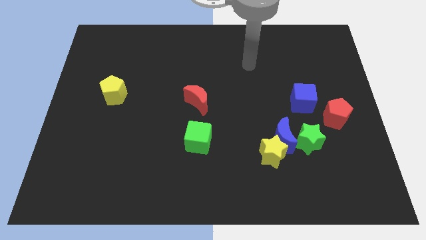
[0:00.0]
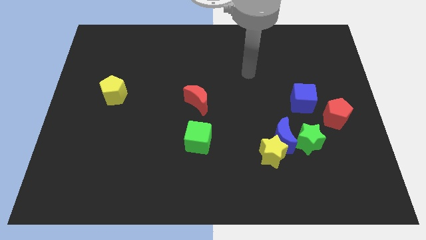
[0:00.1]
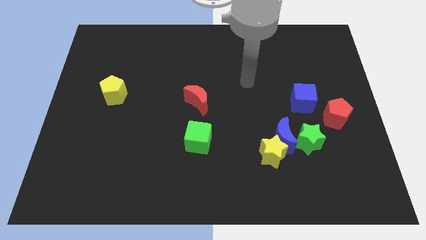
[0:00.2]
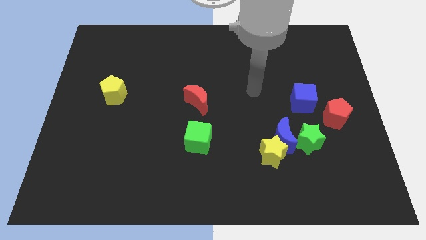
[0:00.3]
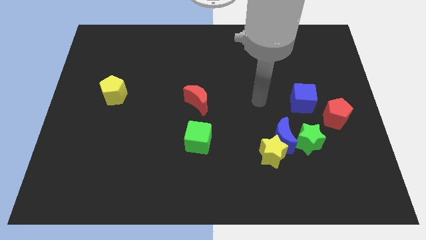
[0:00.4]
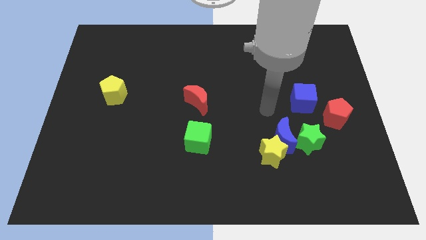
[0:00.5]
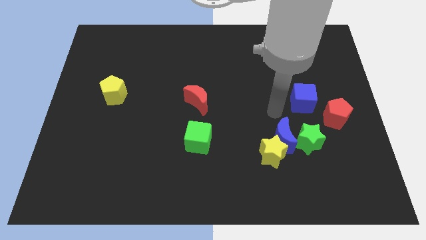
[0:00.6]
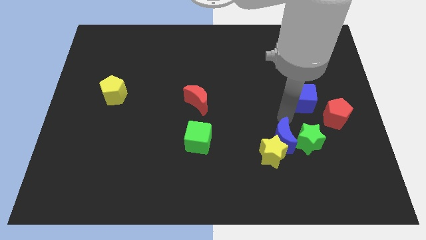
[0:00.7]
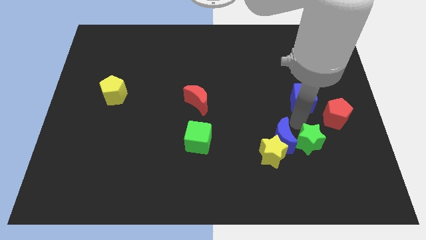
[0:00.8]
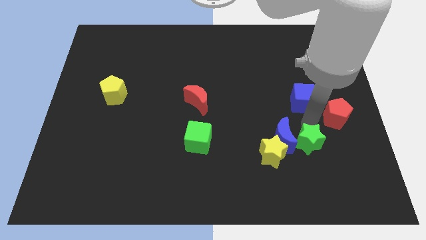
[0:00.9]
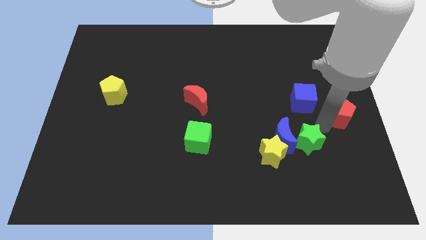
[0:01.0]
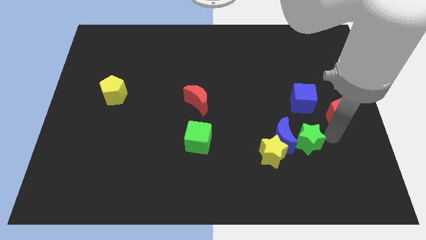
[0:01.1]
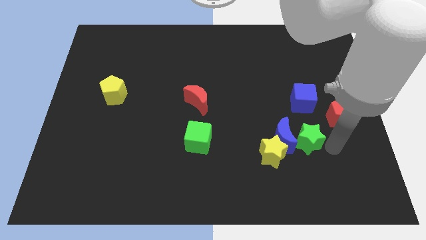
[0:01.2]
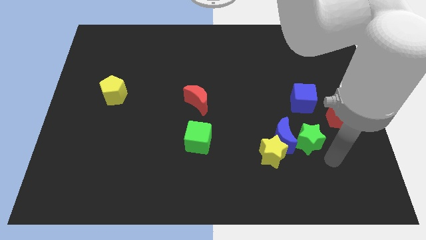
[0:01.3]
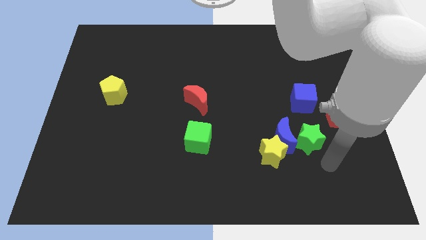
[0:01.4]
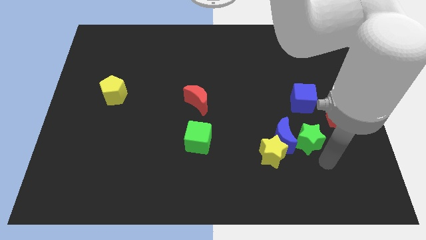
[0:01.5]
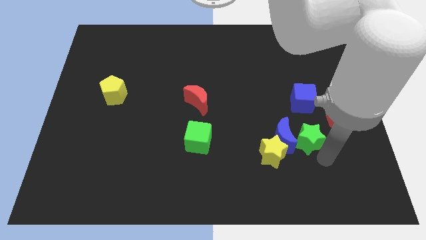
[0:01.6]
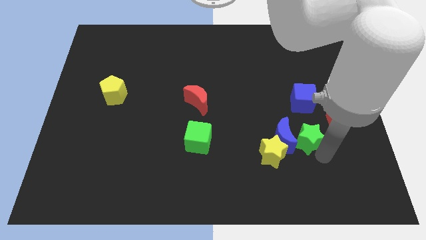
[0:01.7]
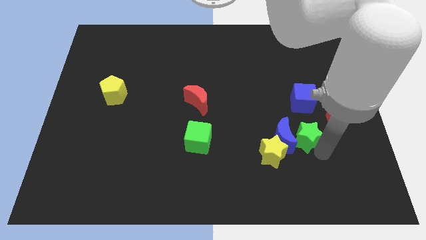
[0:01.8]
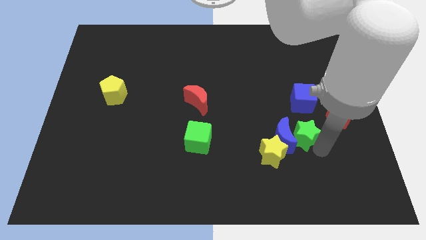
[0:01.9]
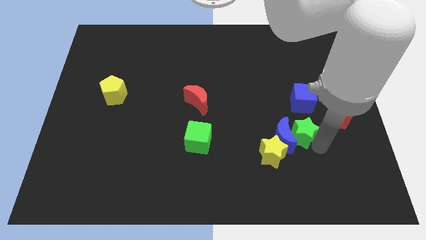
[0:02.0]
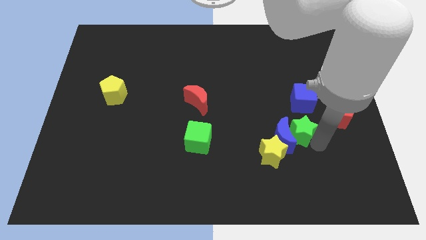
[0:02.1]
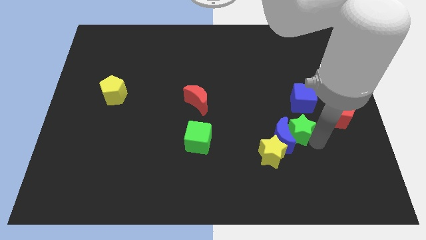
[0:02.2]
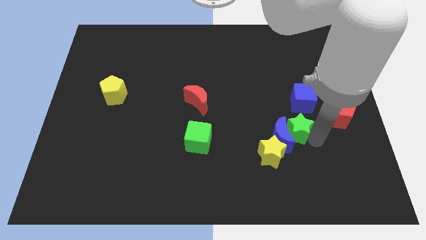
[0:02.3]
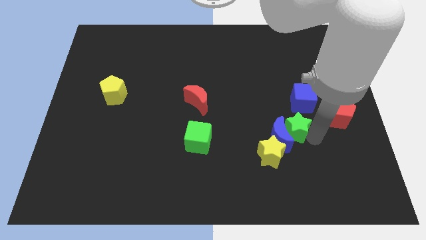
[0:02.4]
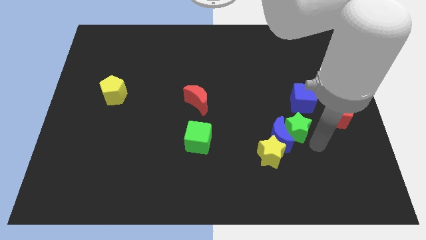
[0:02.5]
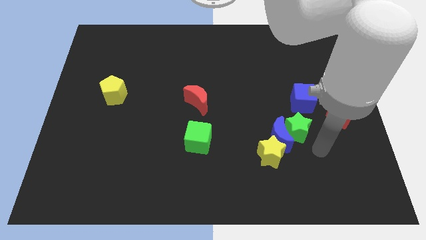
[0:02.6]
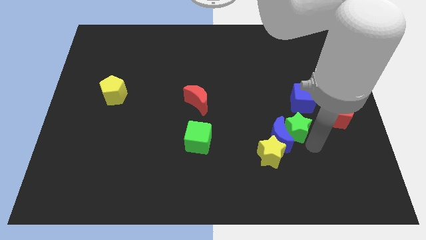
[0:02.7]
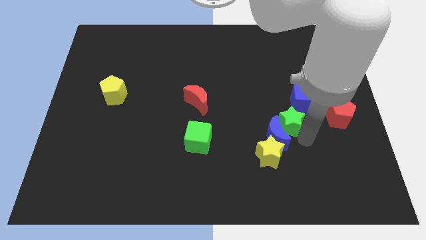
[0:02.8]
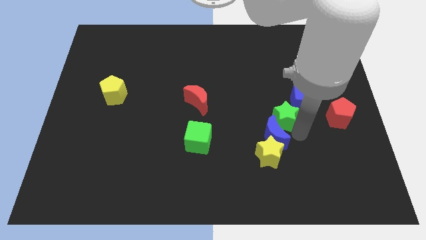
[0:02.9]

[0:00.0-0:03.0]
slide the green star a little bit up and to the left diagonally

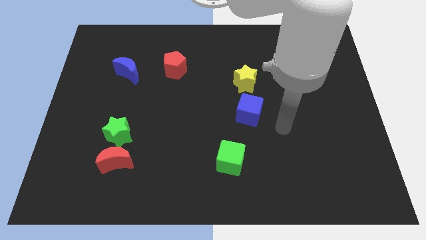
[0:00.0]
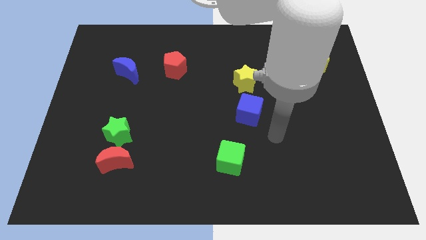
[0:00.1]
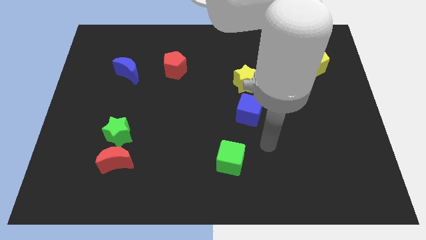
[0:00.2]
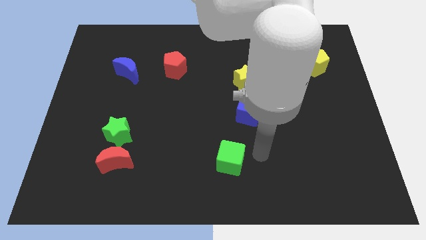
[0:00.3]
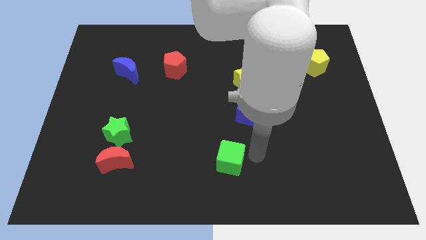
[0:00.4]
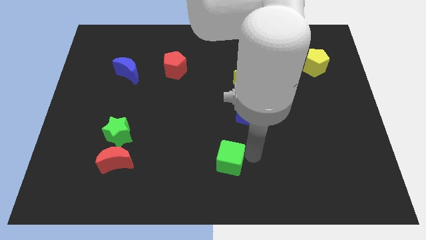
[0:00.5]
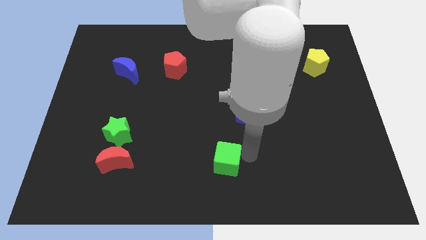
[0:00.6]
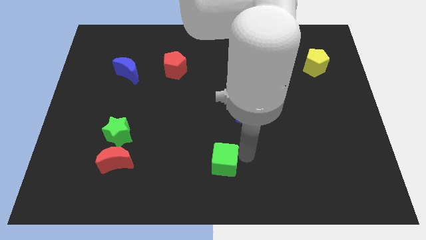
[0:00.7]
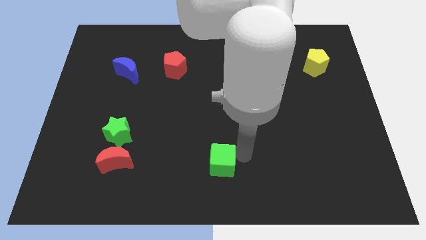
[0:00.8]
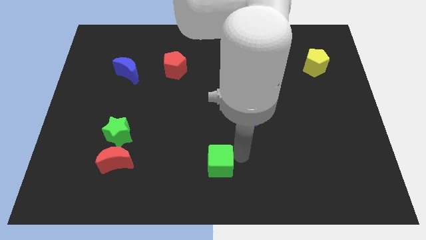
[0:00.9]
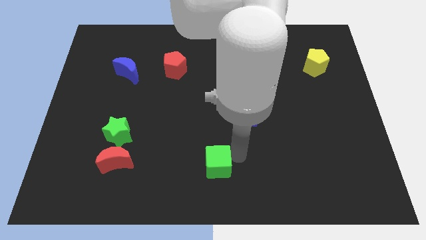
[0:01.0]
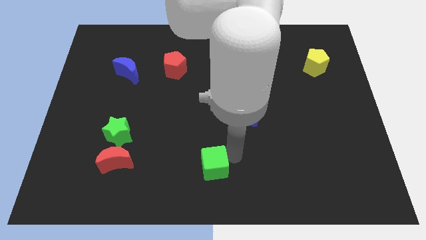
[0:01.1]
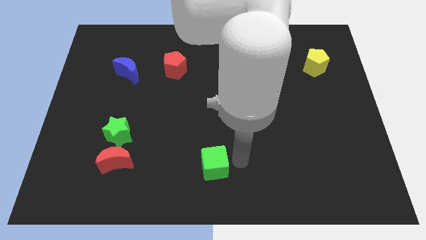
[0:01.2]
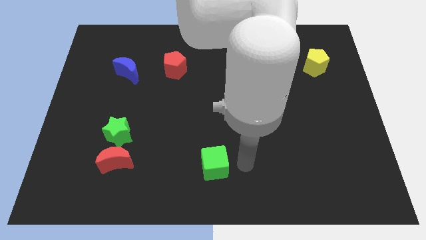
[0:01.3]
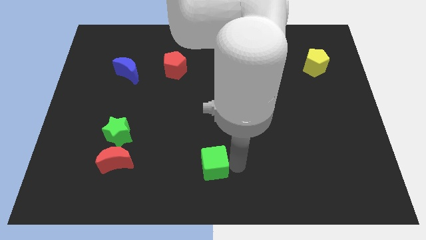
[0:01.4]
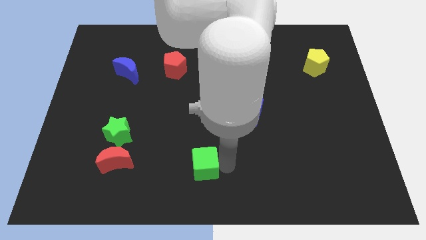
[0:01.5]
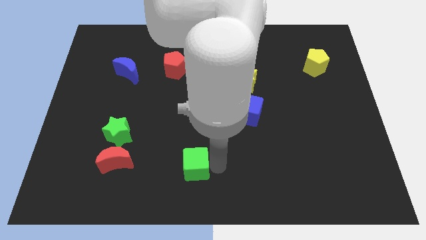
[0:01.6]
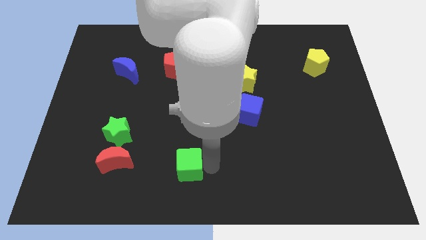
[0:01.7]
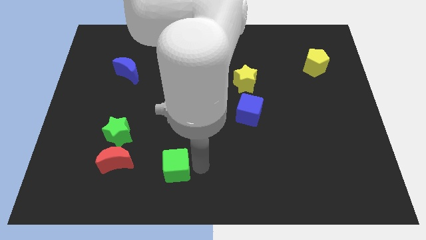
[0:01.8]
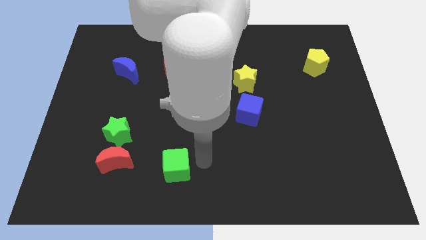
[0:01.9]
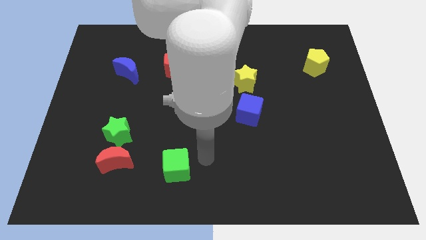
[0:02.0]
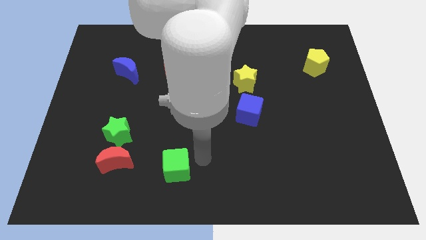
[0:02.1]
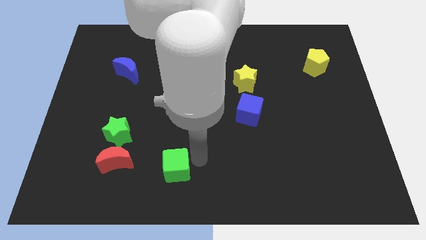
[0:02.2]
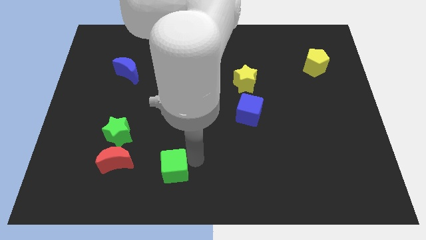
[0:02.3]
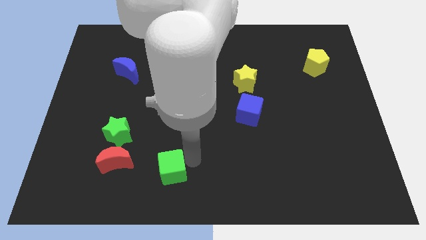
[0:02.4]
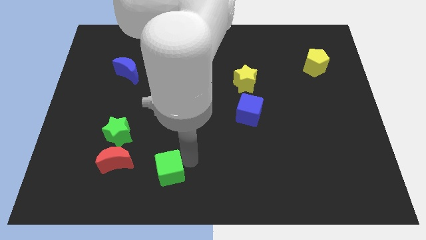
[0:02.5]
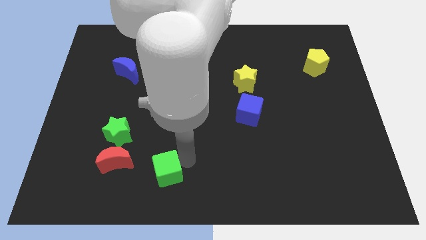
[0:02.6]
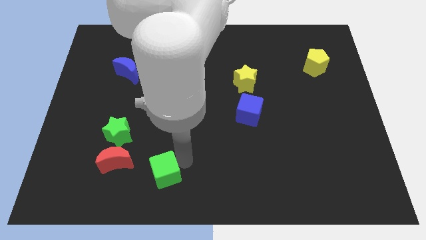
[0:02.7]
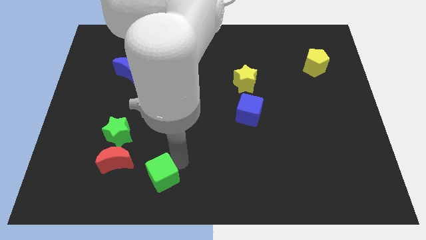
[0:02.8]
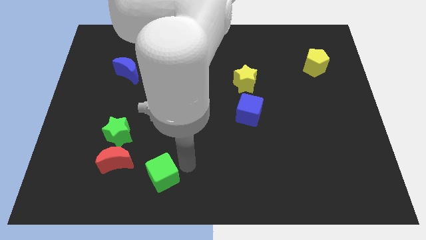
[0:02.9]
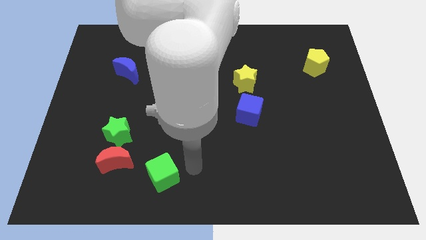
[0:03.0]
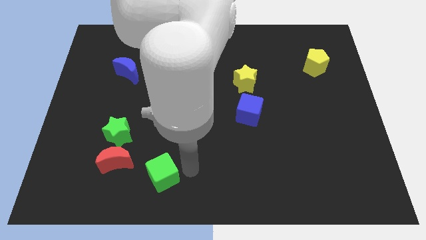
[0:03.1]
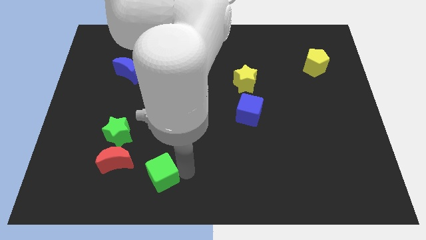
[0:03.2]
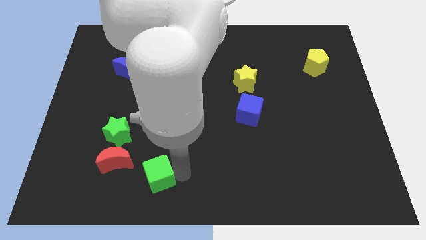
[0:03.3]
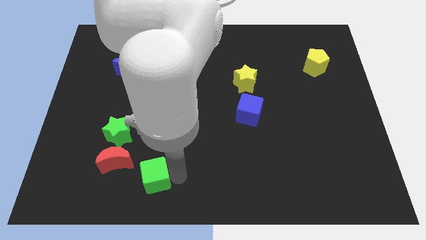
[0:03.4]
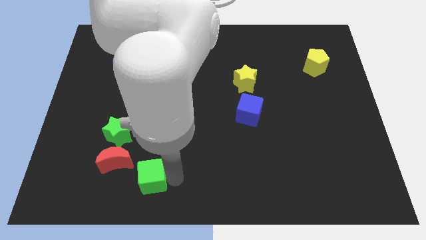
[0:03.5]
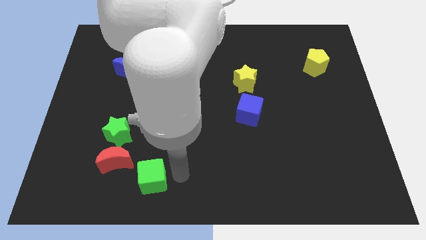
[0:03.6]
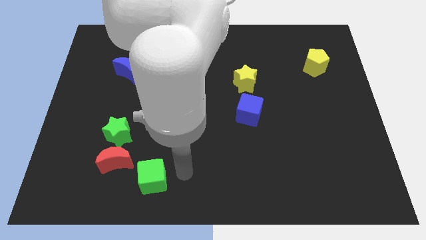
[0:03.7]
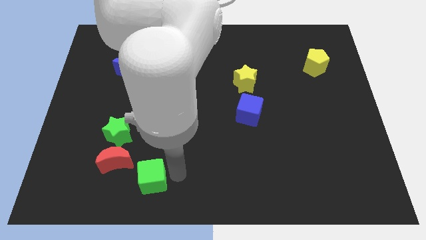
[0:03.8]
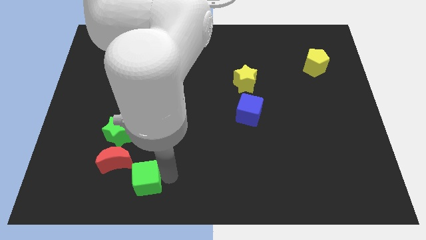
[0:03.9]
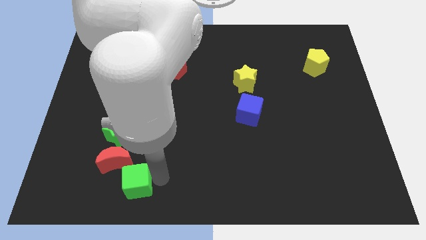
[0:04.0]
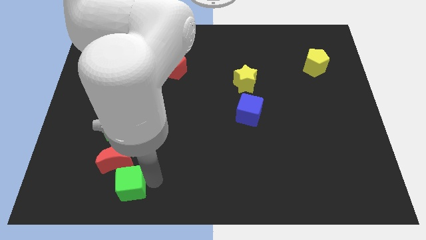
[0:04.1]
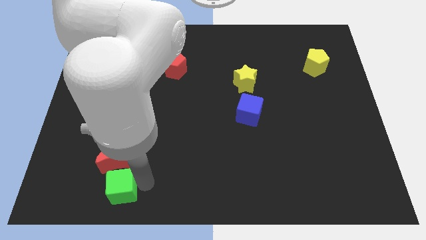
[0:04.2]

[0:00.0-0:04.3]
slide the green cube left

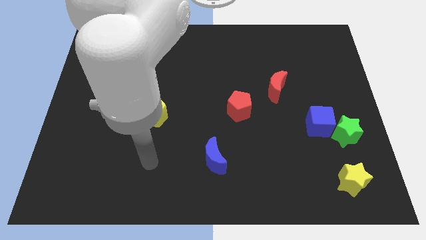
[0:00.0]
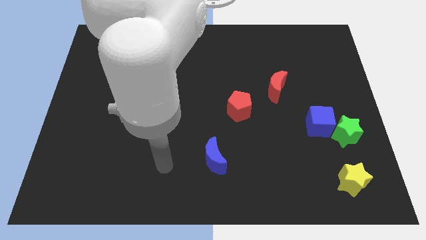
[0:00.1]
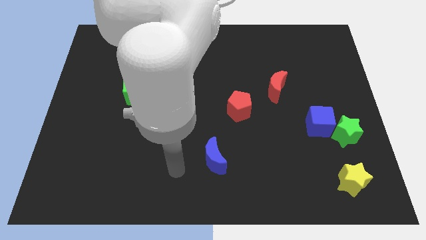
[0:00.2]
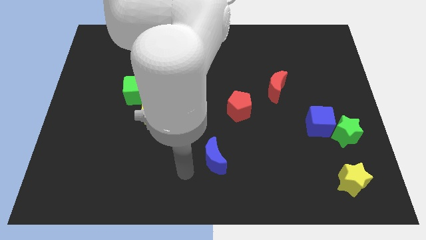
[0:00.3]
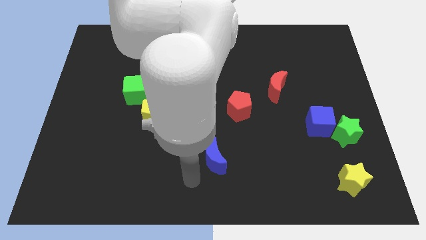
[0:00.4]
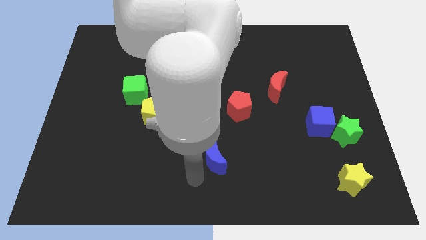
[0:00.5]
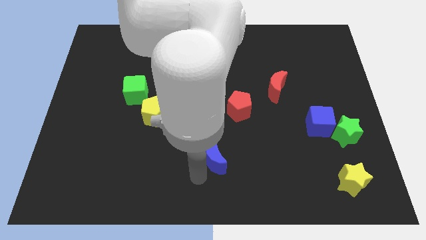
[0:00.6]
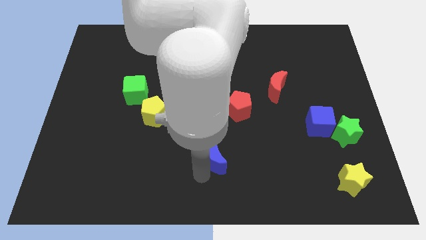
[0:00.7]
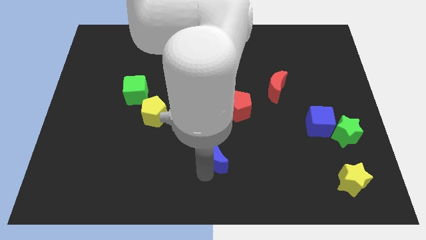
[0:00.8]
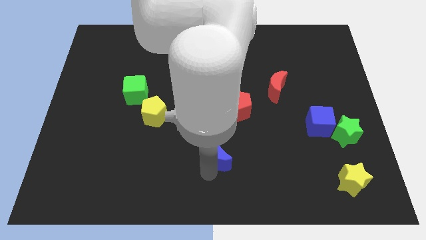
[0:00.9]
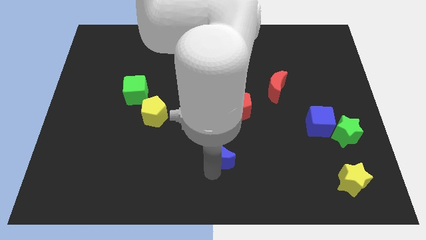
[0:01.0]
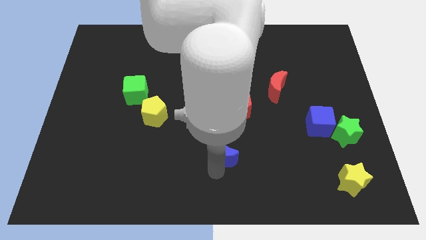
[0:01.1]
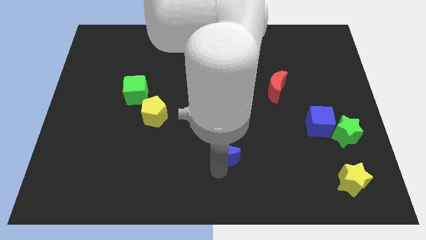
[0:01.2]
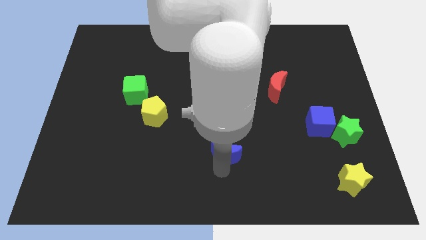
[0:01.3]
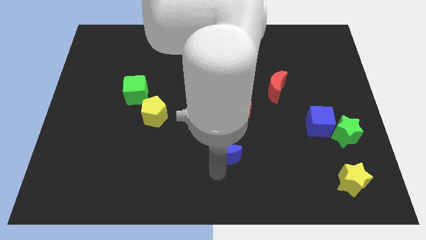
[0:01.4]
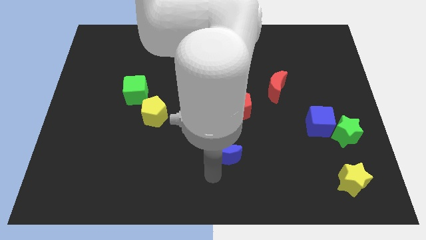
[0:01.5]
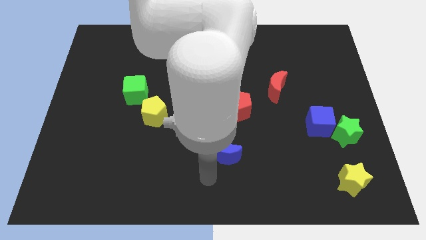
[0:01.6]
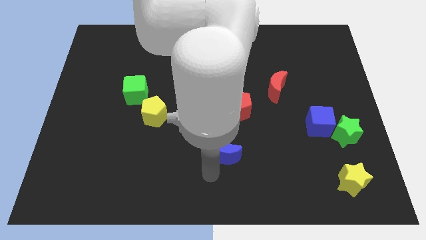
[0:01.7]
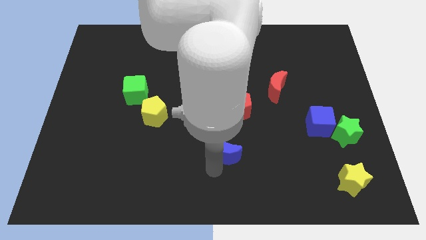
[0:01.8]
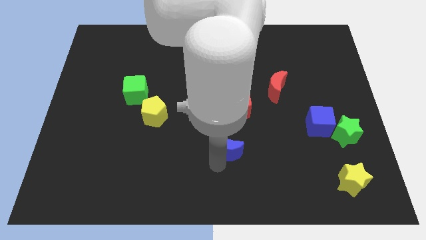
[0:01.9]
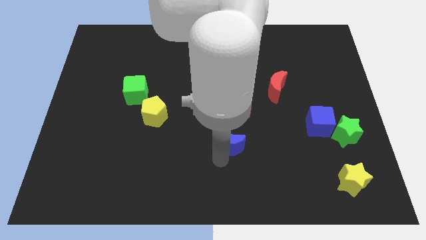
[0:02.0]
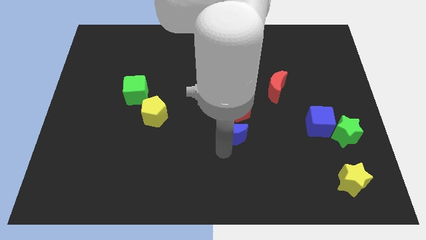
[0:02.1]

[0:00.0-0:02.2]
slightly push the blue moon upwards and to the right diagonally
